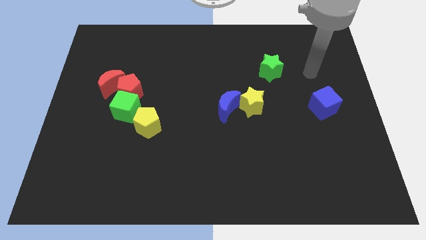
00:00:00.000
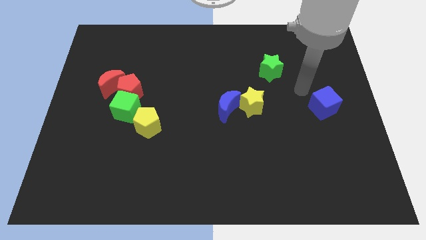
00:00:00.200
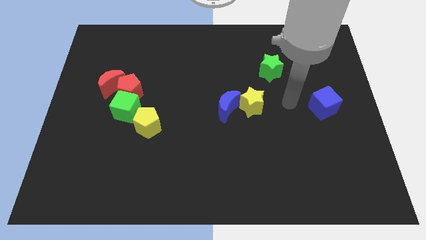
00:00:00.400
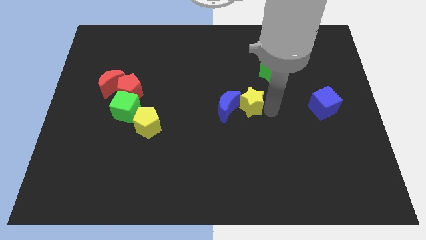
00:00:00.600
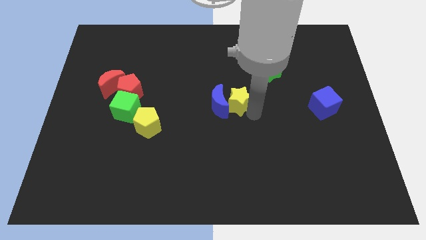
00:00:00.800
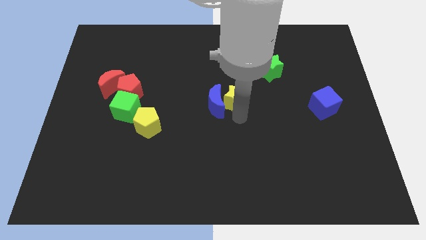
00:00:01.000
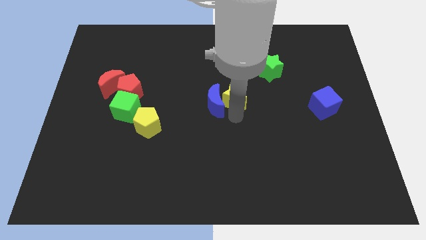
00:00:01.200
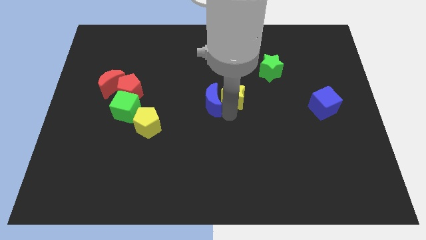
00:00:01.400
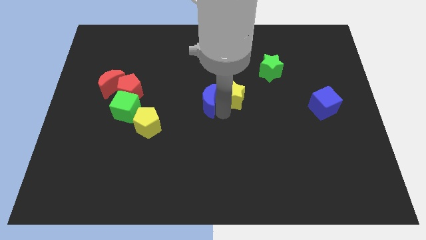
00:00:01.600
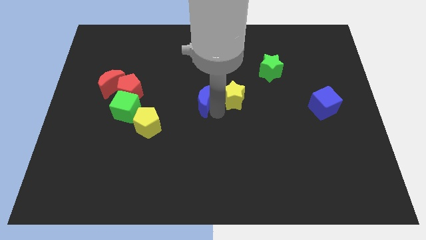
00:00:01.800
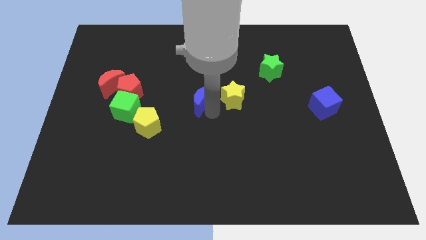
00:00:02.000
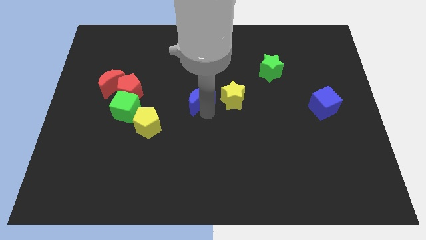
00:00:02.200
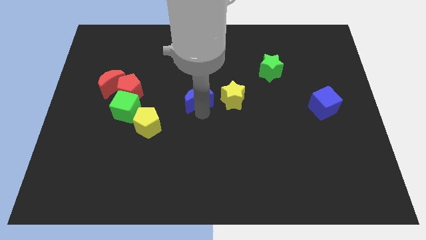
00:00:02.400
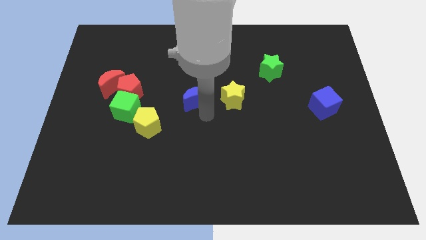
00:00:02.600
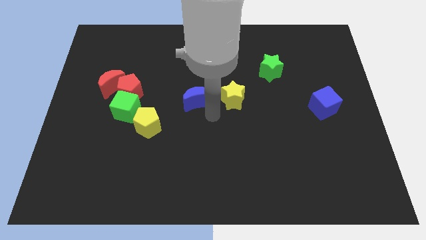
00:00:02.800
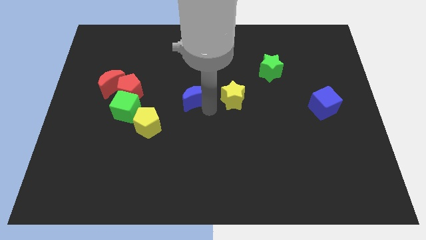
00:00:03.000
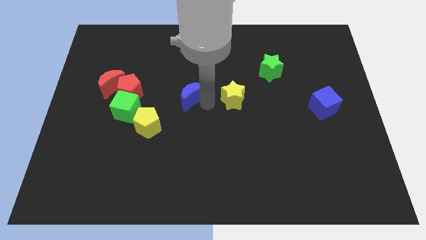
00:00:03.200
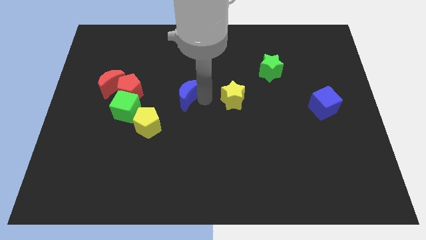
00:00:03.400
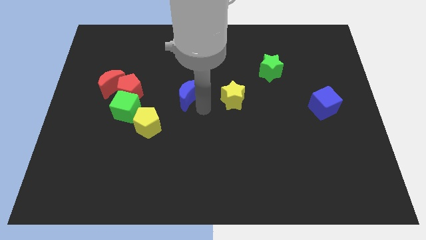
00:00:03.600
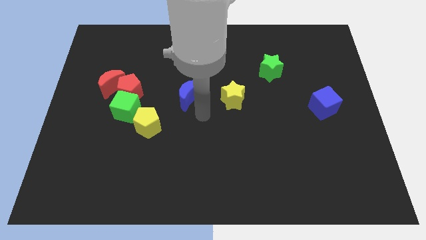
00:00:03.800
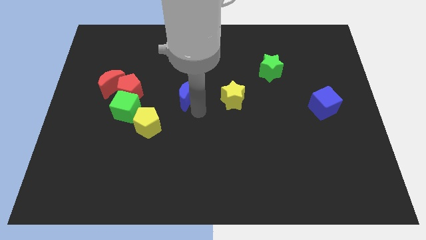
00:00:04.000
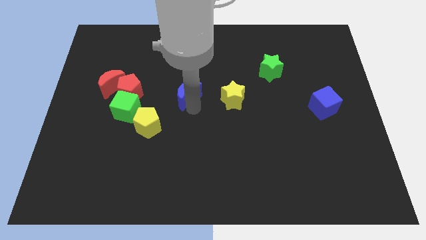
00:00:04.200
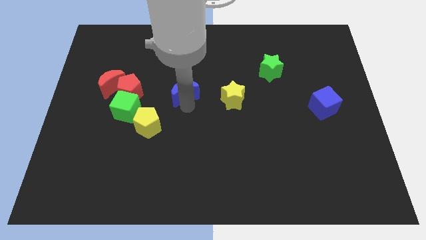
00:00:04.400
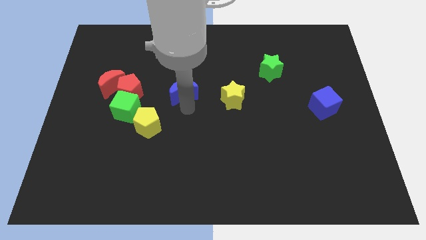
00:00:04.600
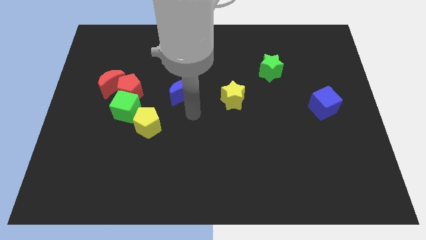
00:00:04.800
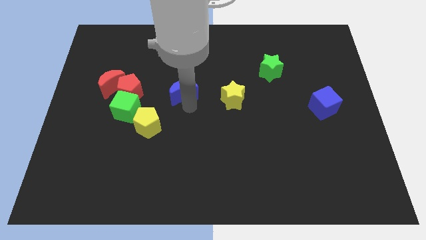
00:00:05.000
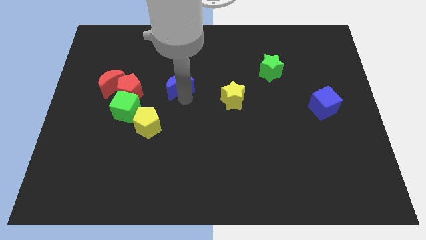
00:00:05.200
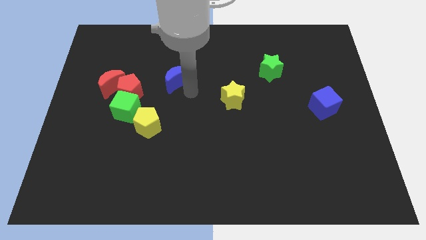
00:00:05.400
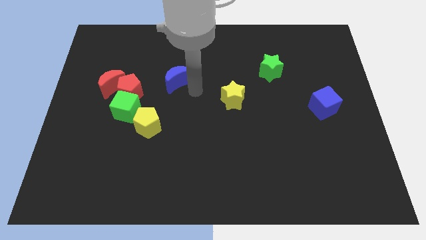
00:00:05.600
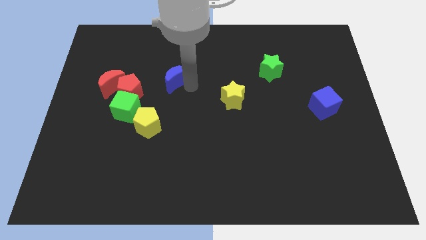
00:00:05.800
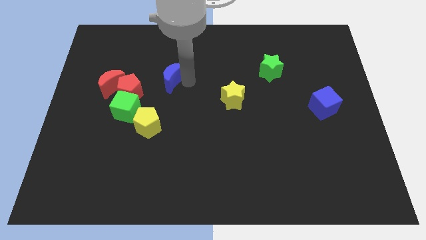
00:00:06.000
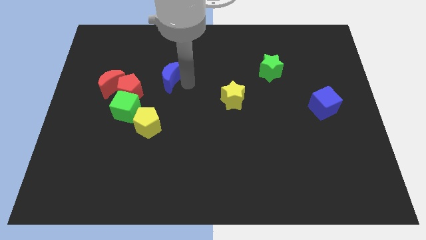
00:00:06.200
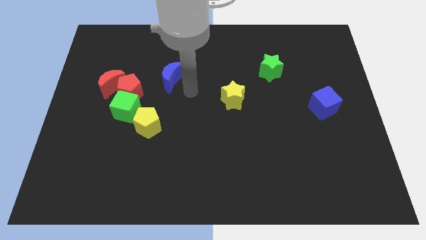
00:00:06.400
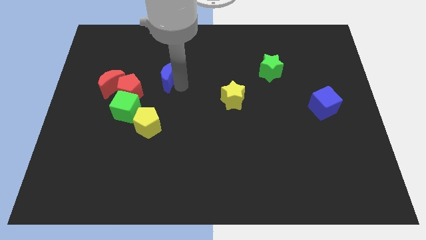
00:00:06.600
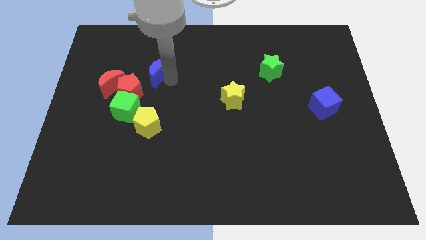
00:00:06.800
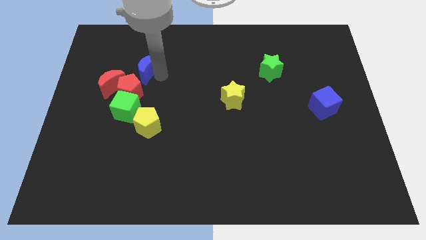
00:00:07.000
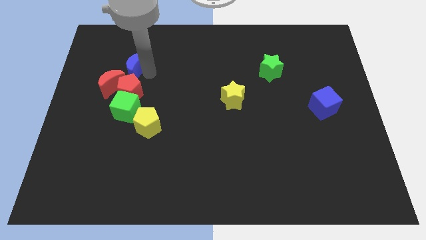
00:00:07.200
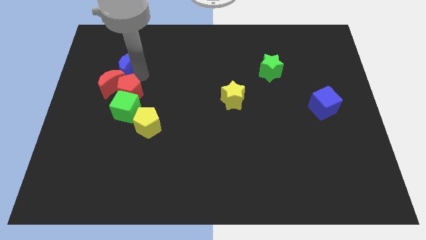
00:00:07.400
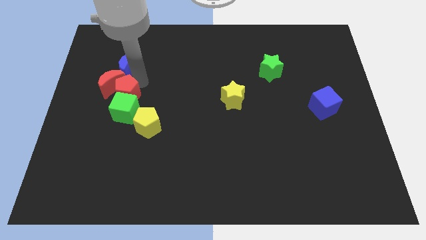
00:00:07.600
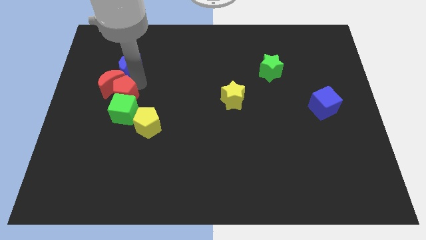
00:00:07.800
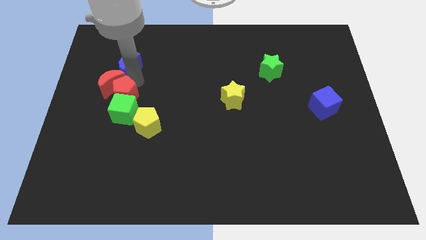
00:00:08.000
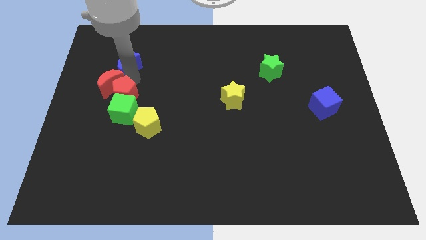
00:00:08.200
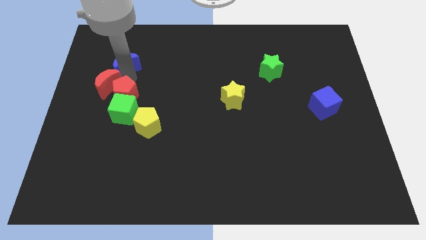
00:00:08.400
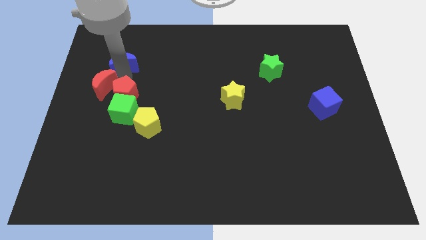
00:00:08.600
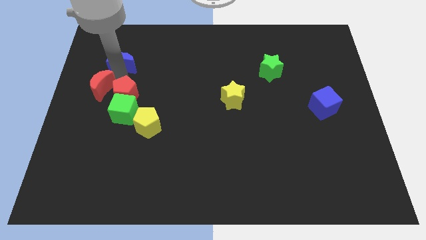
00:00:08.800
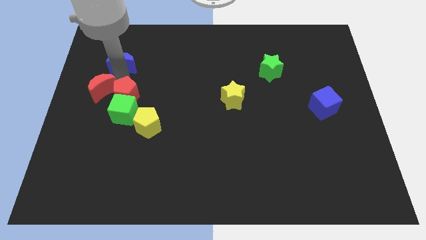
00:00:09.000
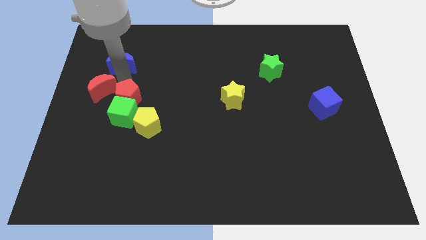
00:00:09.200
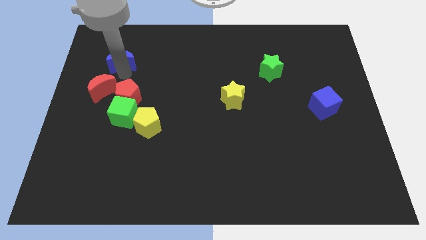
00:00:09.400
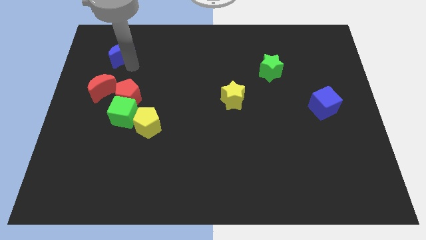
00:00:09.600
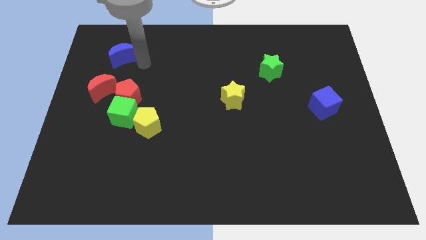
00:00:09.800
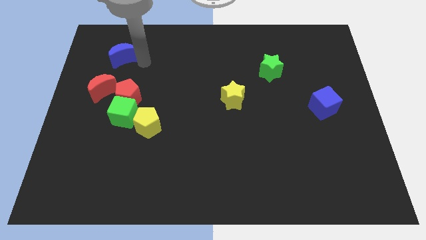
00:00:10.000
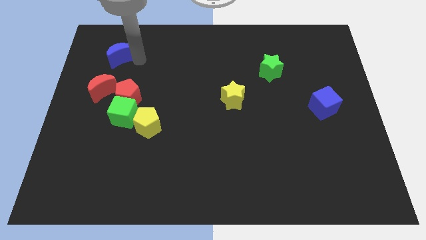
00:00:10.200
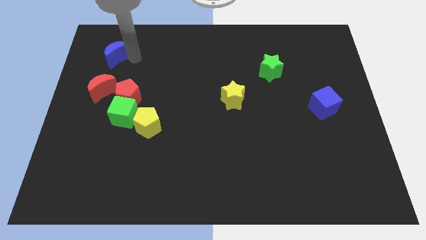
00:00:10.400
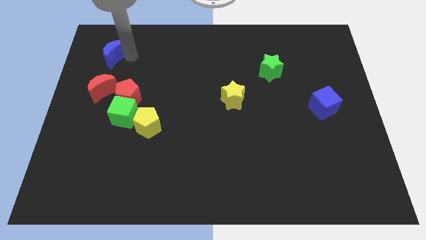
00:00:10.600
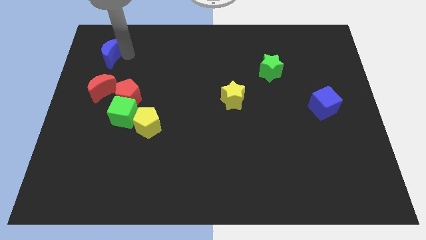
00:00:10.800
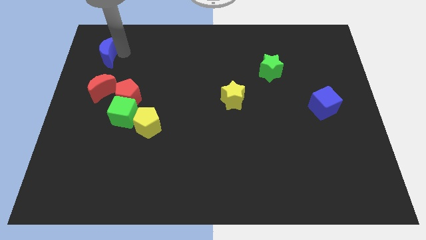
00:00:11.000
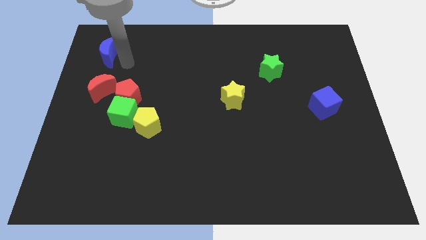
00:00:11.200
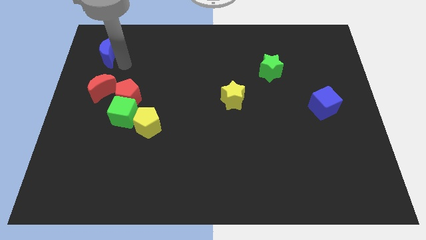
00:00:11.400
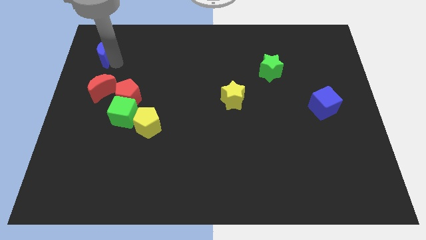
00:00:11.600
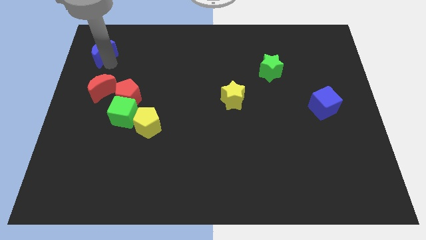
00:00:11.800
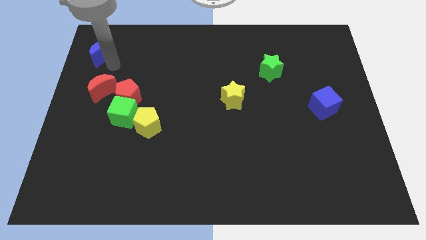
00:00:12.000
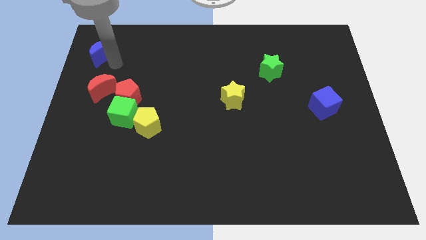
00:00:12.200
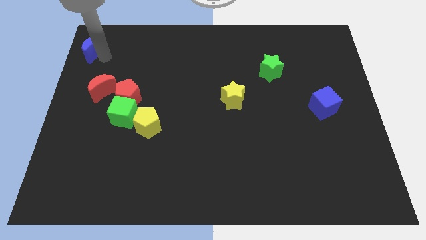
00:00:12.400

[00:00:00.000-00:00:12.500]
move the blue moon to the upper left corner
